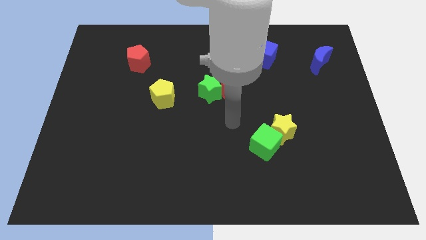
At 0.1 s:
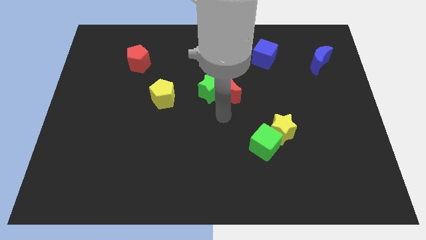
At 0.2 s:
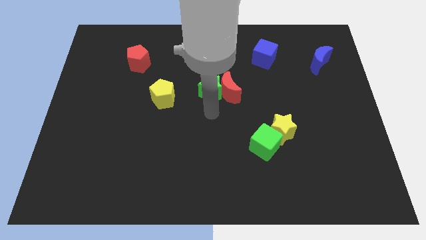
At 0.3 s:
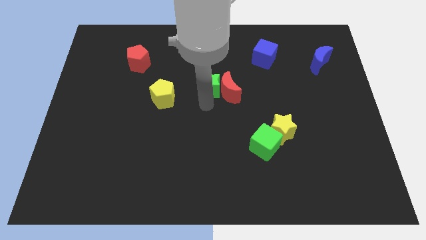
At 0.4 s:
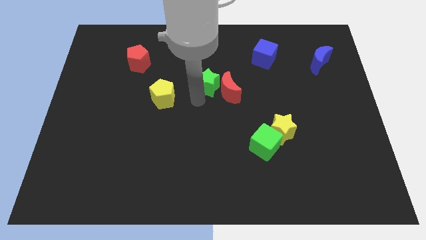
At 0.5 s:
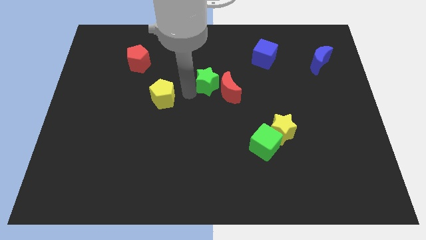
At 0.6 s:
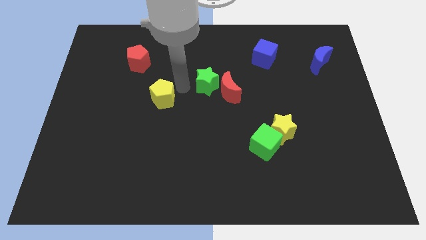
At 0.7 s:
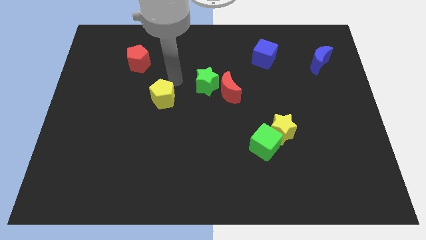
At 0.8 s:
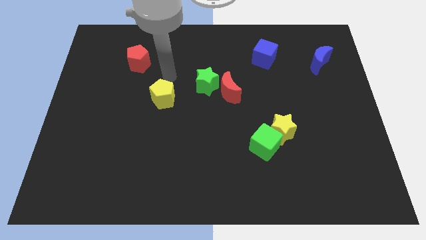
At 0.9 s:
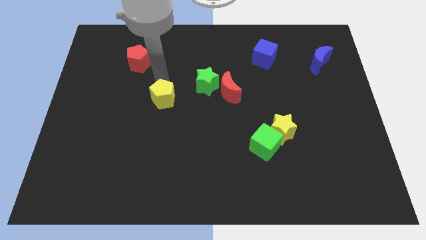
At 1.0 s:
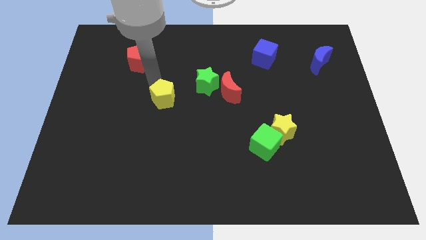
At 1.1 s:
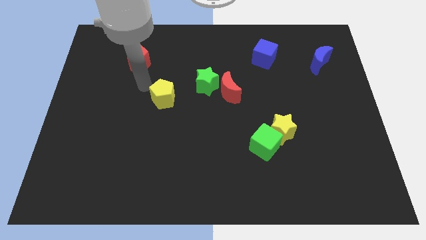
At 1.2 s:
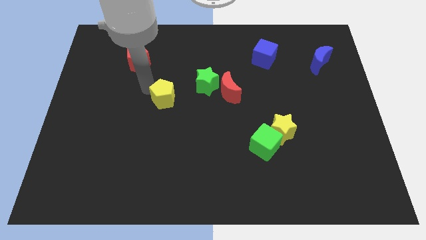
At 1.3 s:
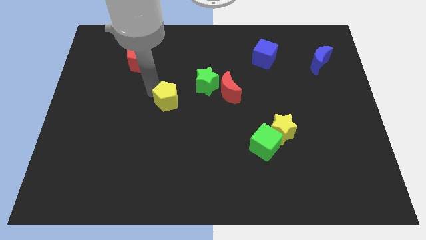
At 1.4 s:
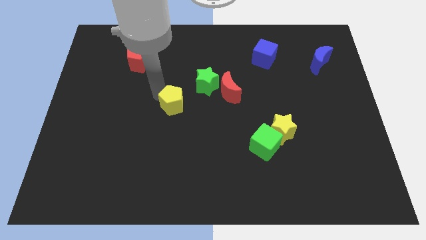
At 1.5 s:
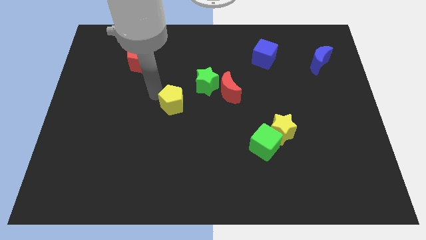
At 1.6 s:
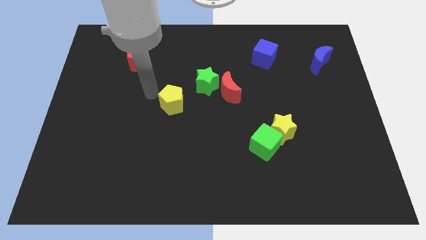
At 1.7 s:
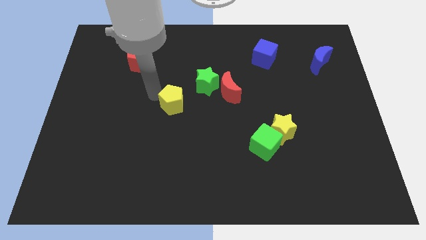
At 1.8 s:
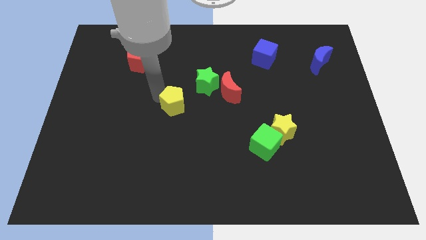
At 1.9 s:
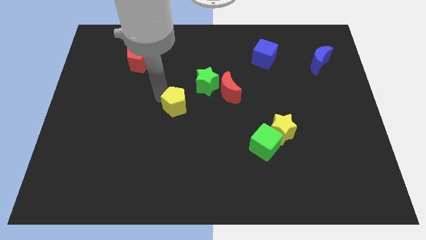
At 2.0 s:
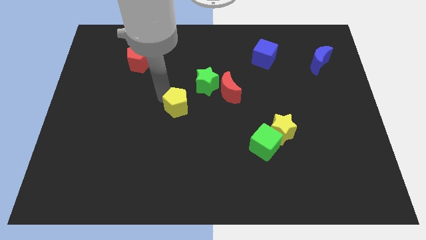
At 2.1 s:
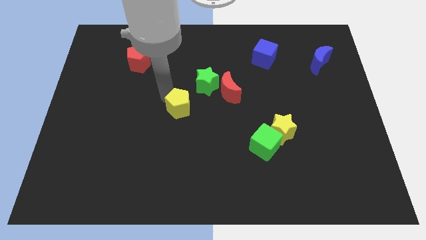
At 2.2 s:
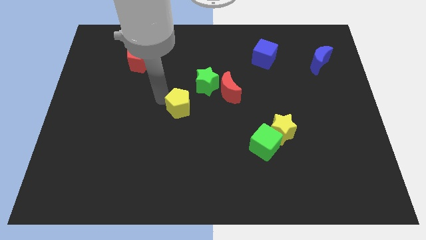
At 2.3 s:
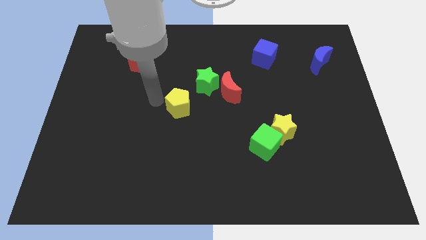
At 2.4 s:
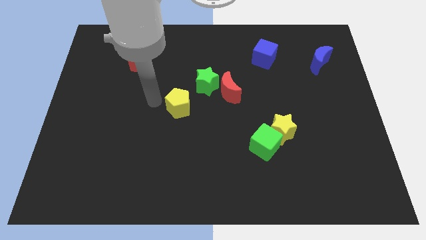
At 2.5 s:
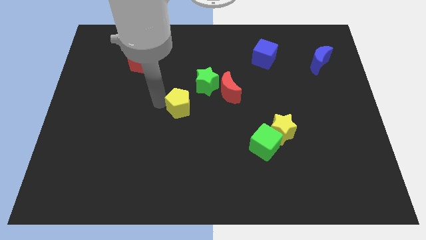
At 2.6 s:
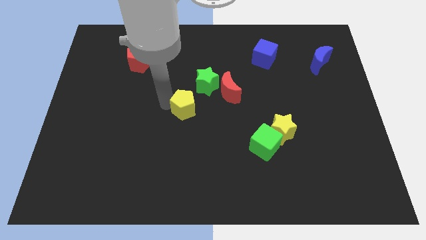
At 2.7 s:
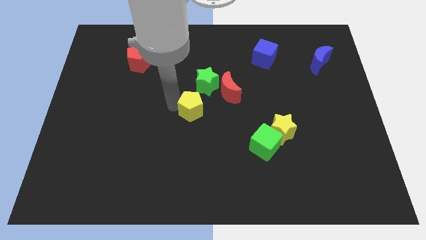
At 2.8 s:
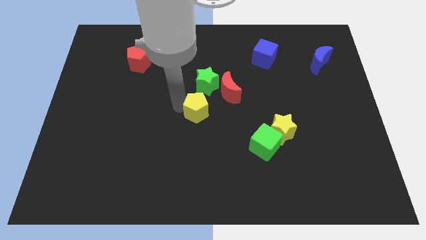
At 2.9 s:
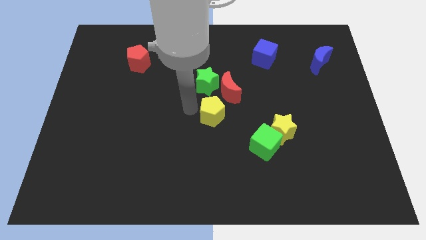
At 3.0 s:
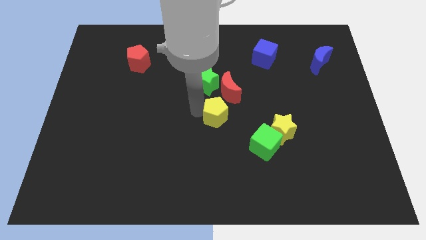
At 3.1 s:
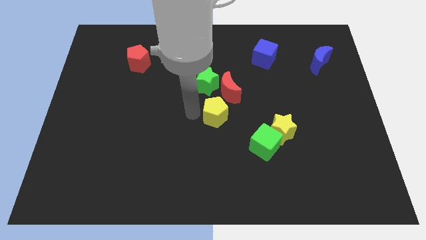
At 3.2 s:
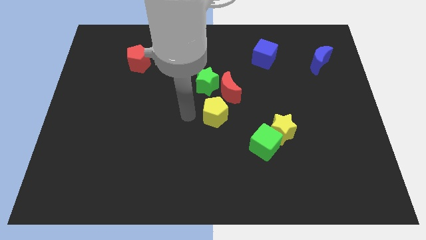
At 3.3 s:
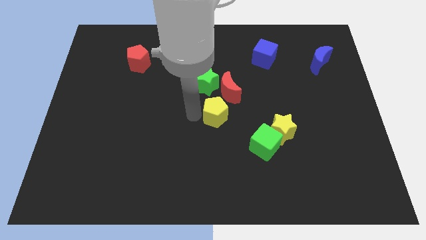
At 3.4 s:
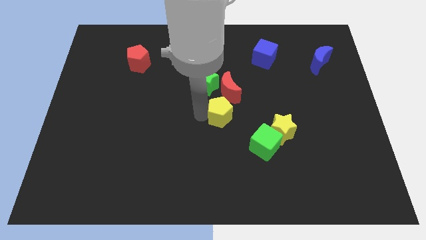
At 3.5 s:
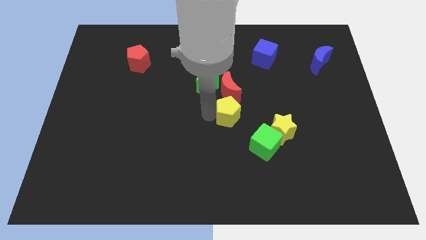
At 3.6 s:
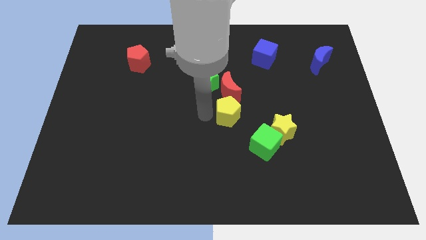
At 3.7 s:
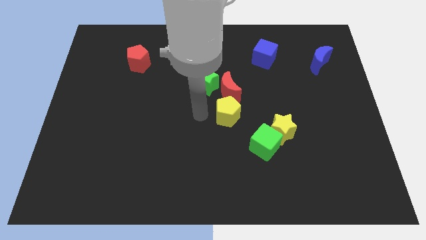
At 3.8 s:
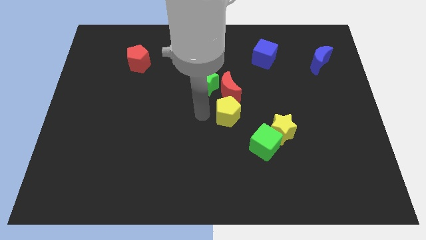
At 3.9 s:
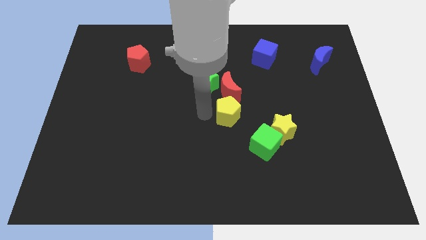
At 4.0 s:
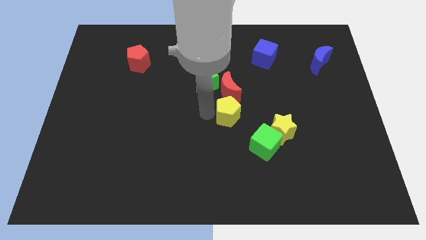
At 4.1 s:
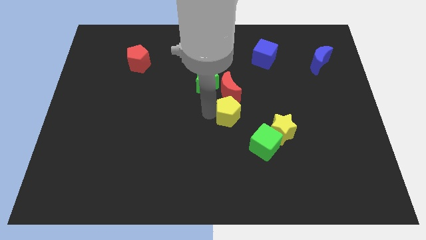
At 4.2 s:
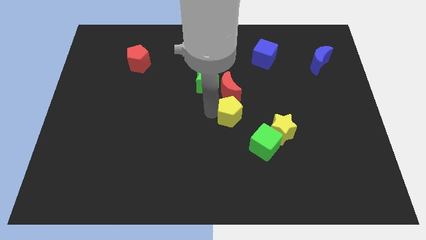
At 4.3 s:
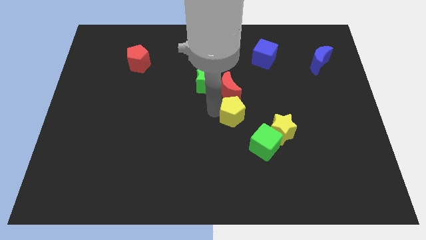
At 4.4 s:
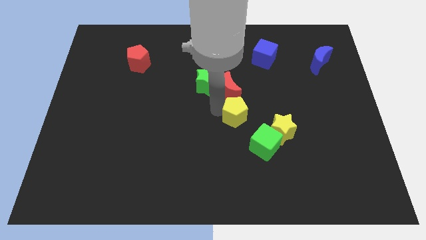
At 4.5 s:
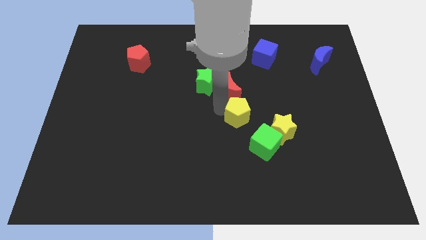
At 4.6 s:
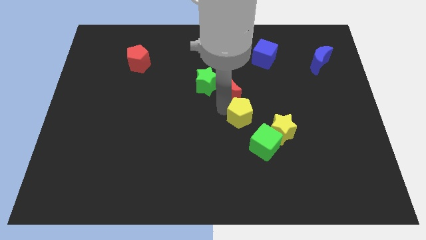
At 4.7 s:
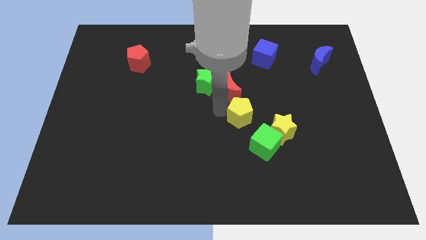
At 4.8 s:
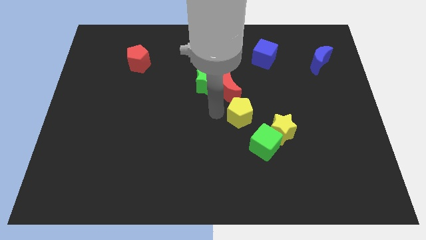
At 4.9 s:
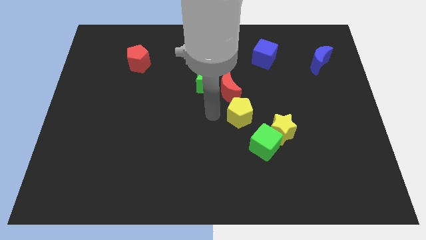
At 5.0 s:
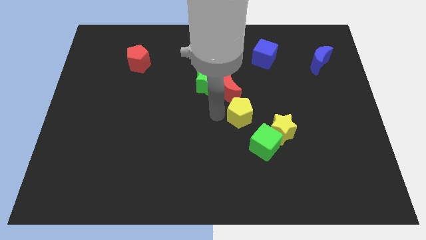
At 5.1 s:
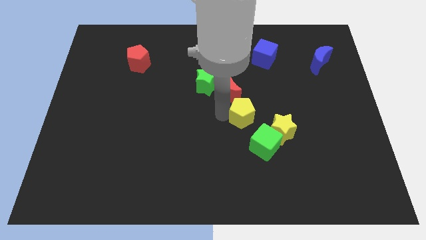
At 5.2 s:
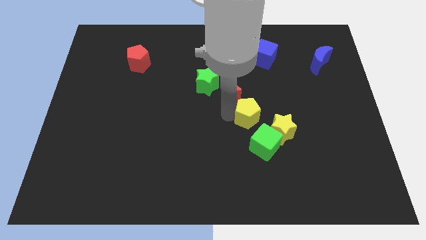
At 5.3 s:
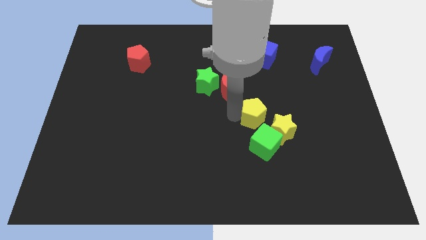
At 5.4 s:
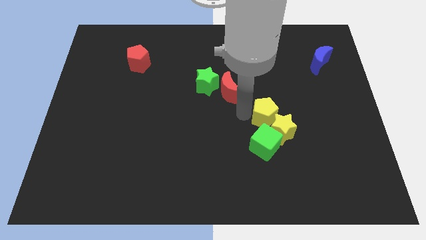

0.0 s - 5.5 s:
slide the yellow pentagon to the yellow star

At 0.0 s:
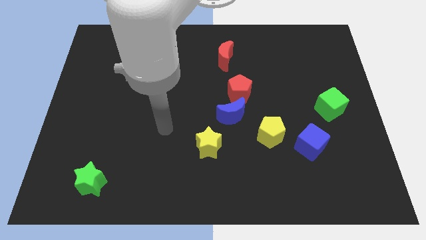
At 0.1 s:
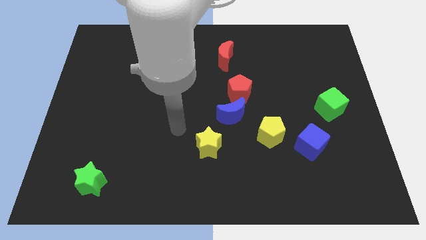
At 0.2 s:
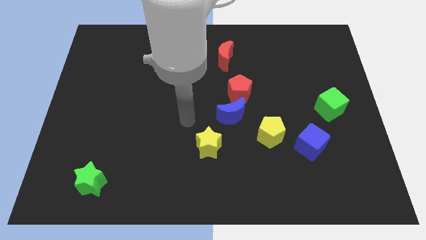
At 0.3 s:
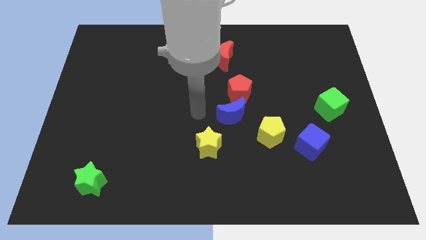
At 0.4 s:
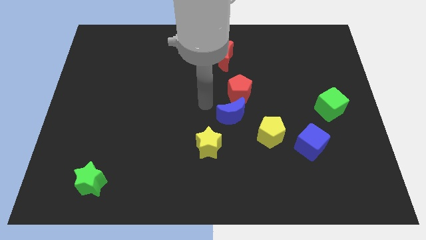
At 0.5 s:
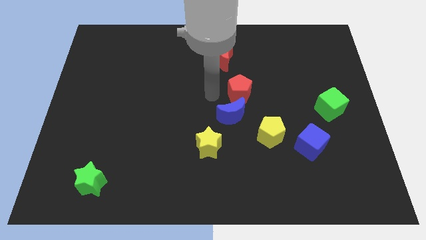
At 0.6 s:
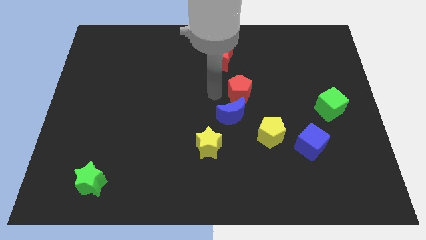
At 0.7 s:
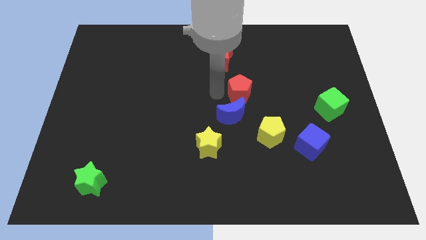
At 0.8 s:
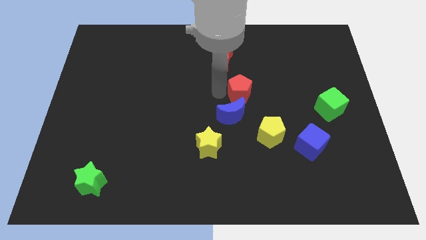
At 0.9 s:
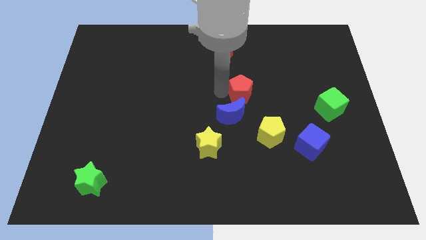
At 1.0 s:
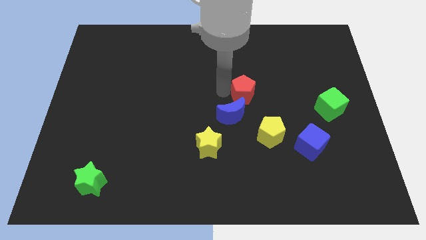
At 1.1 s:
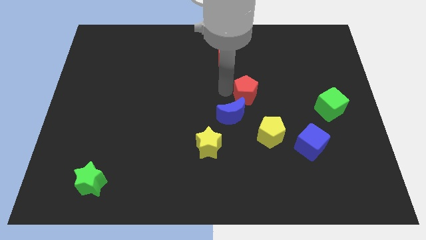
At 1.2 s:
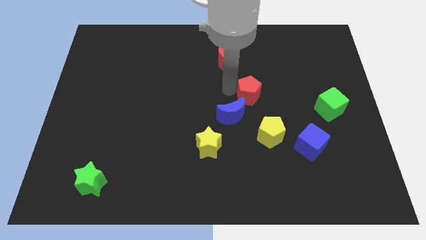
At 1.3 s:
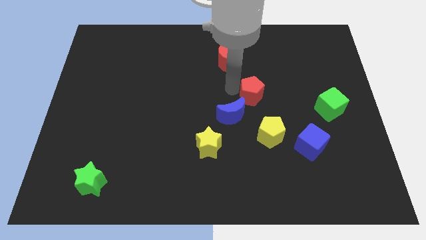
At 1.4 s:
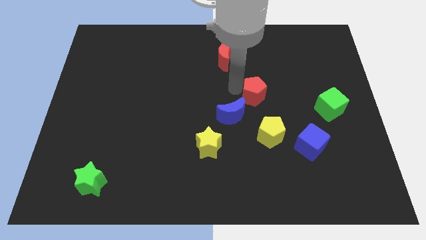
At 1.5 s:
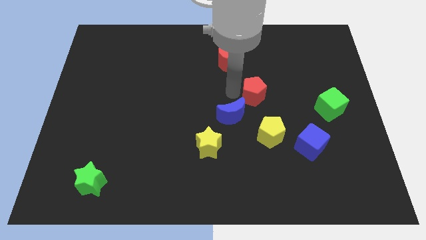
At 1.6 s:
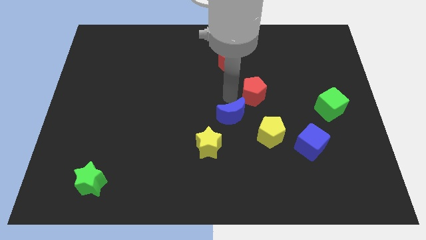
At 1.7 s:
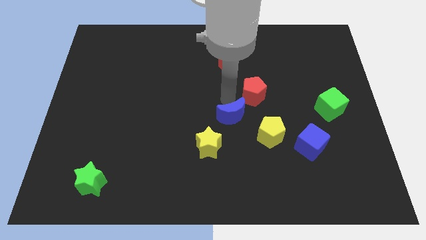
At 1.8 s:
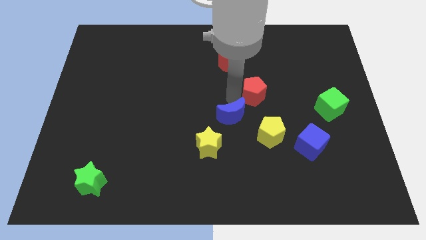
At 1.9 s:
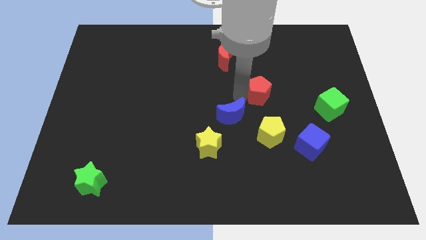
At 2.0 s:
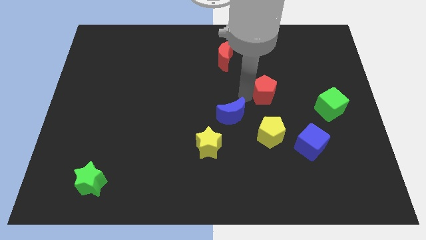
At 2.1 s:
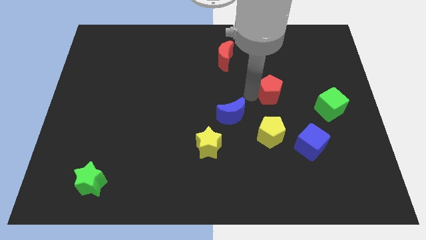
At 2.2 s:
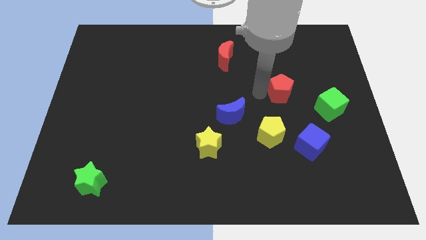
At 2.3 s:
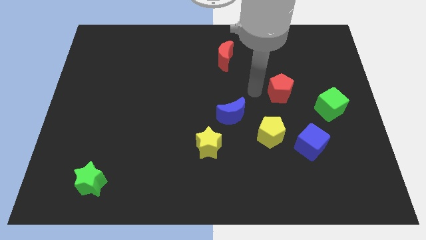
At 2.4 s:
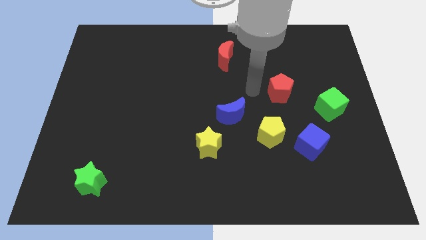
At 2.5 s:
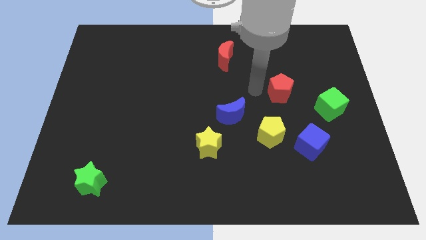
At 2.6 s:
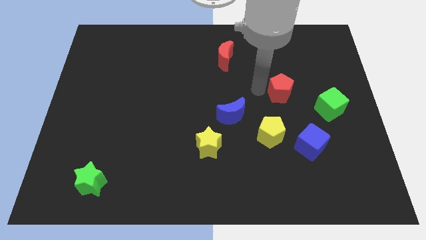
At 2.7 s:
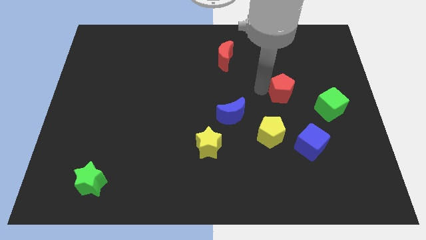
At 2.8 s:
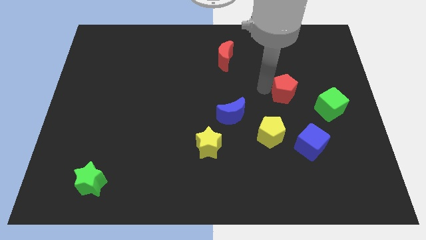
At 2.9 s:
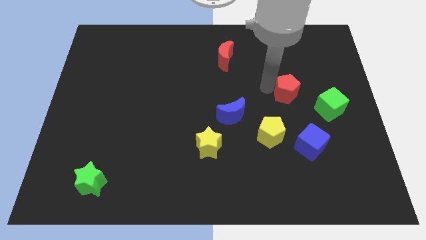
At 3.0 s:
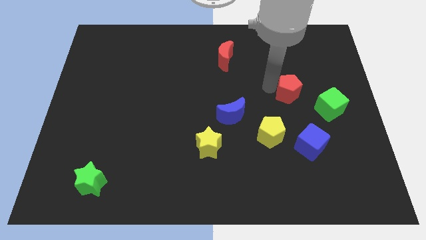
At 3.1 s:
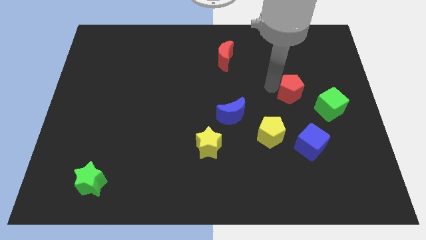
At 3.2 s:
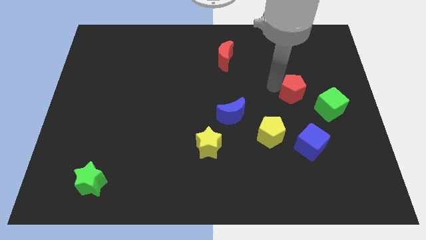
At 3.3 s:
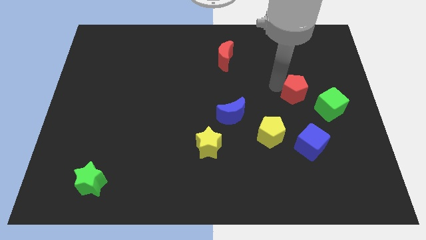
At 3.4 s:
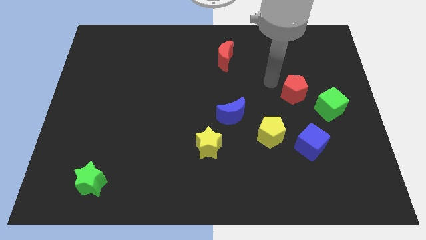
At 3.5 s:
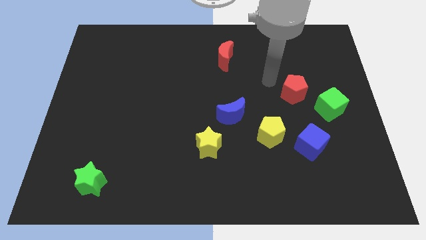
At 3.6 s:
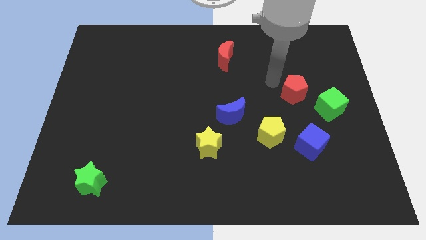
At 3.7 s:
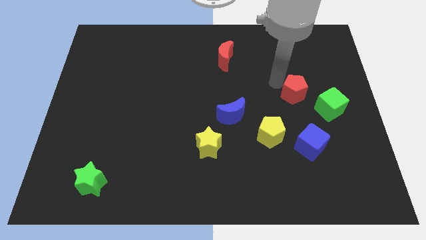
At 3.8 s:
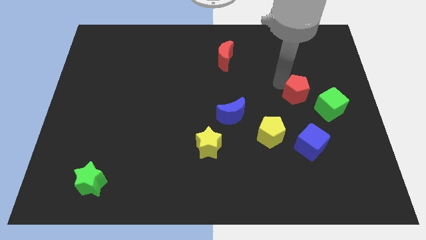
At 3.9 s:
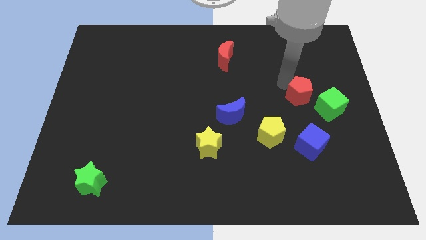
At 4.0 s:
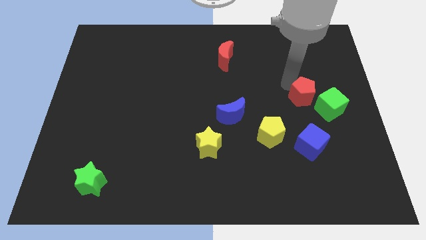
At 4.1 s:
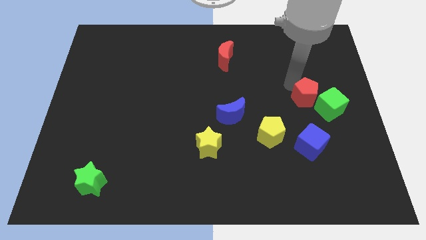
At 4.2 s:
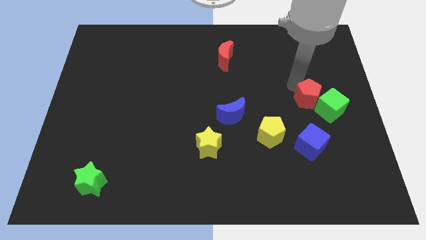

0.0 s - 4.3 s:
put the red pentagon towards the green cube
